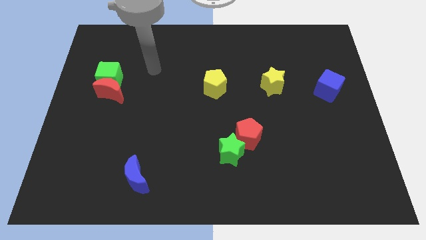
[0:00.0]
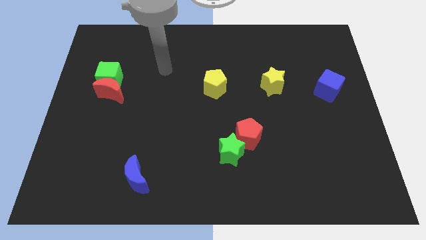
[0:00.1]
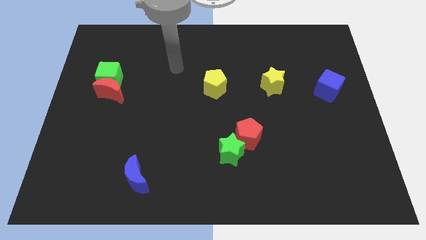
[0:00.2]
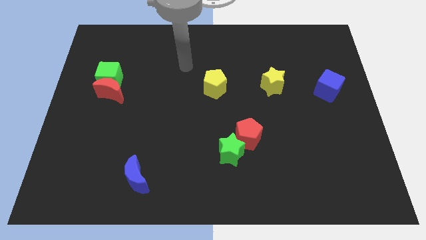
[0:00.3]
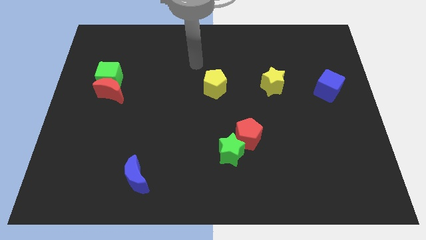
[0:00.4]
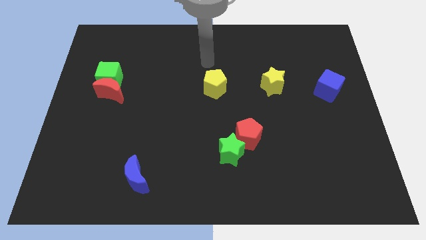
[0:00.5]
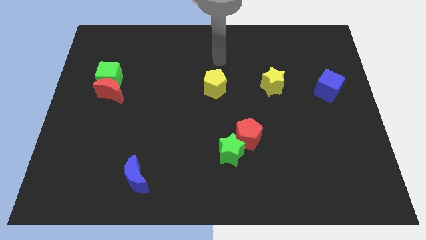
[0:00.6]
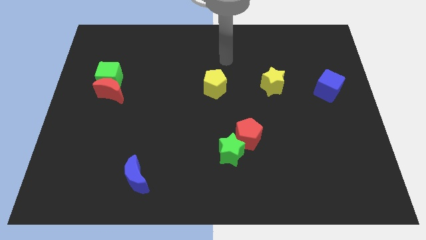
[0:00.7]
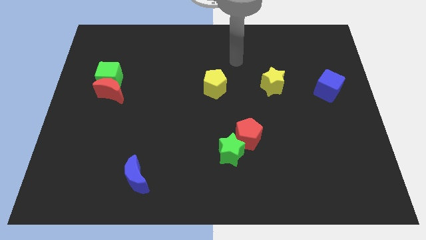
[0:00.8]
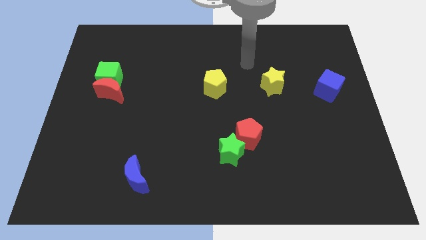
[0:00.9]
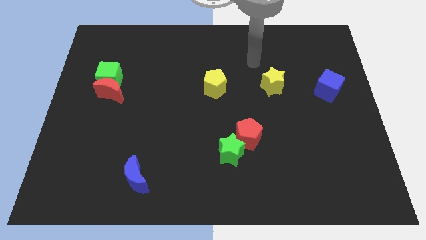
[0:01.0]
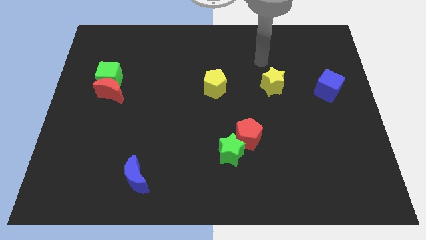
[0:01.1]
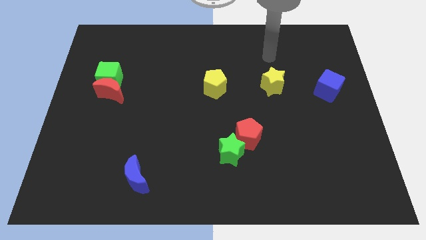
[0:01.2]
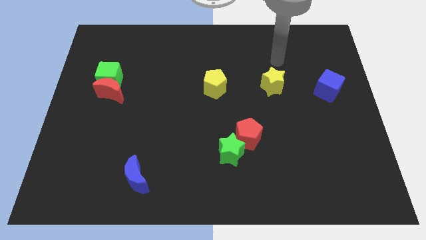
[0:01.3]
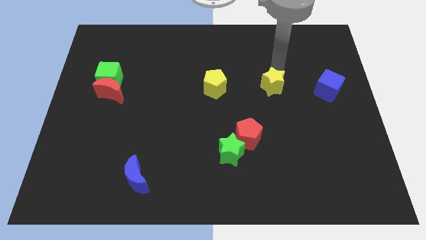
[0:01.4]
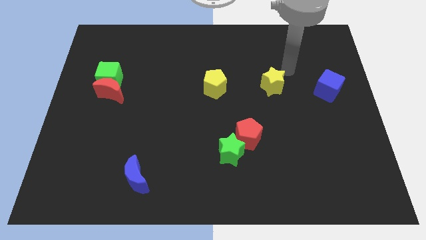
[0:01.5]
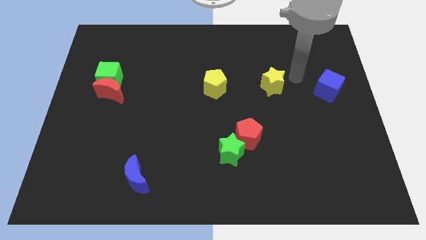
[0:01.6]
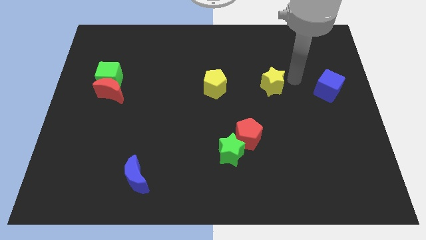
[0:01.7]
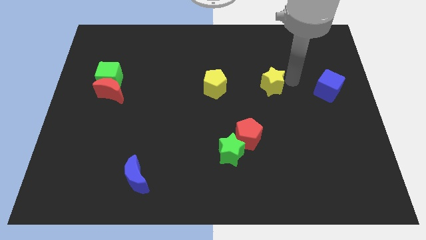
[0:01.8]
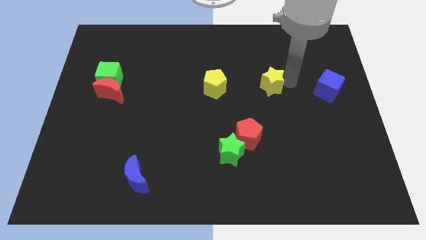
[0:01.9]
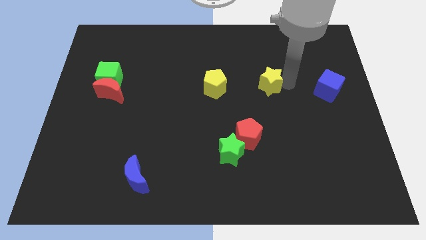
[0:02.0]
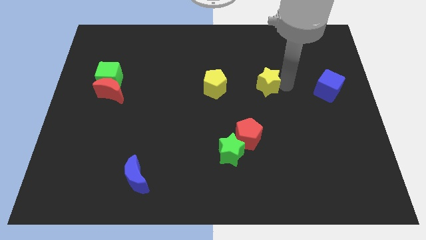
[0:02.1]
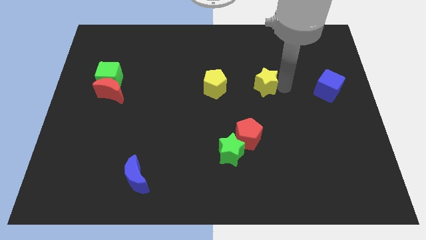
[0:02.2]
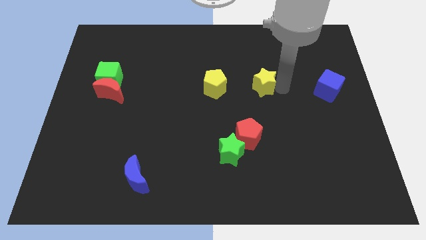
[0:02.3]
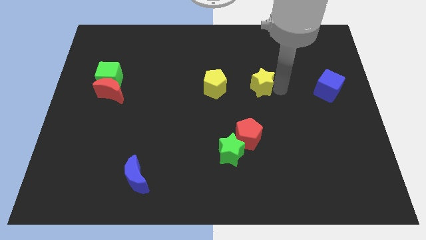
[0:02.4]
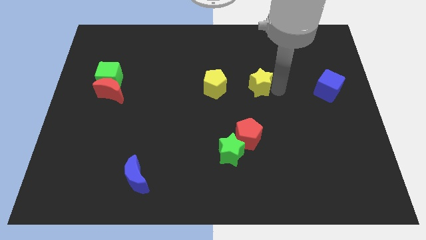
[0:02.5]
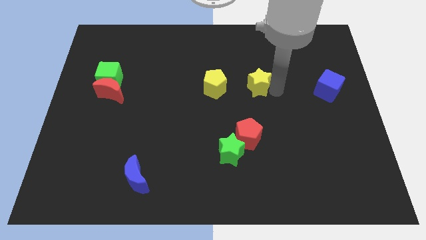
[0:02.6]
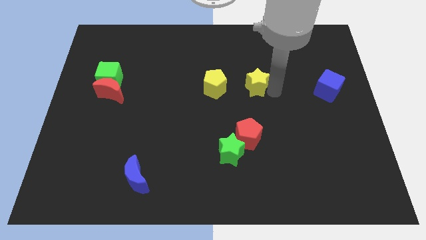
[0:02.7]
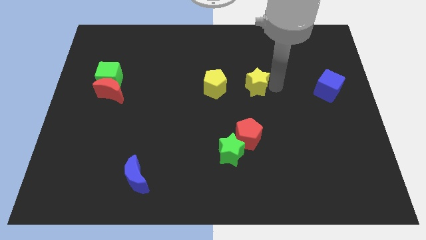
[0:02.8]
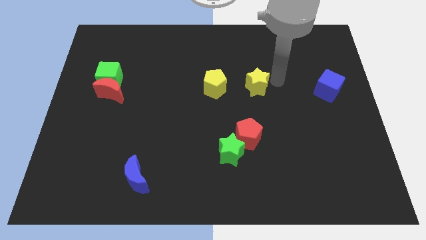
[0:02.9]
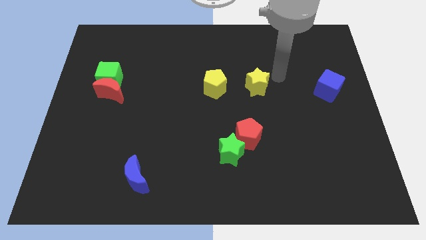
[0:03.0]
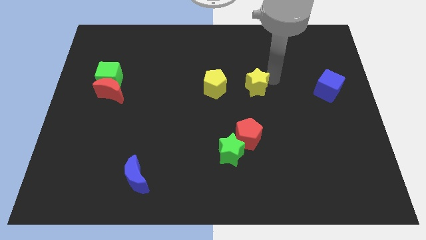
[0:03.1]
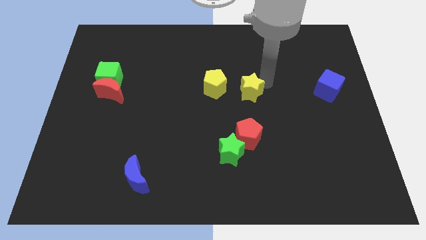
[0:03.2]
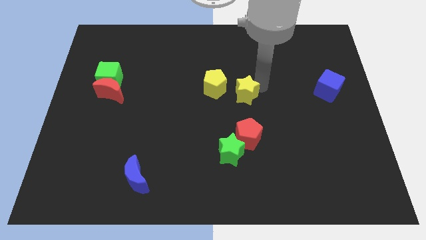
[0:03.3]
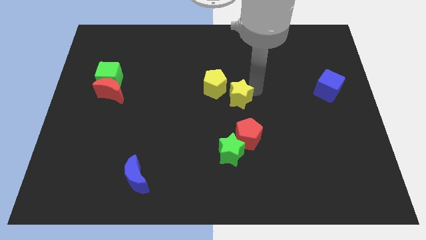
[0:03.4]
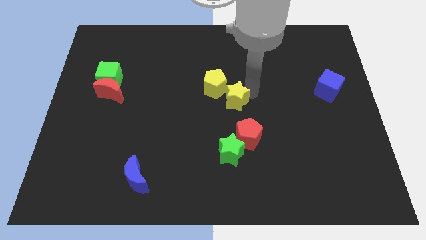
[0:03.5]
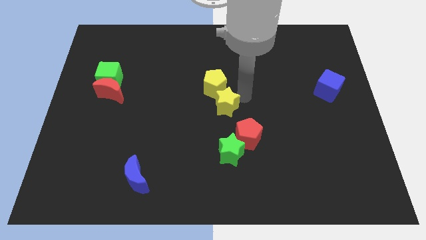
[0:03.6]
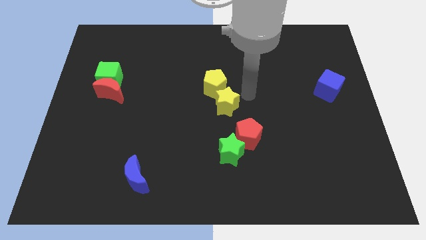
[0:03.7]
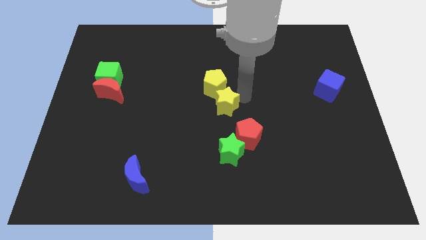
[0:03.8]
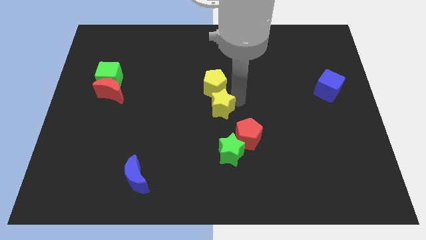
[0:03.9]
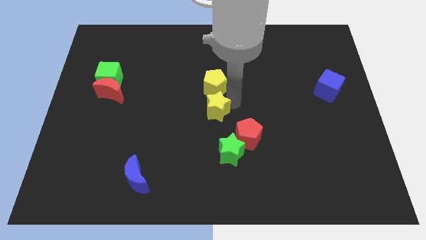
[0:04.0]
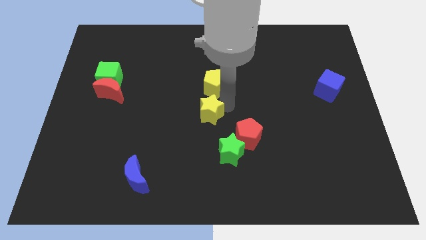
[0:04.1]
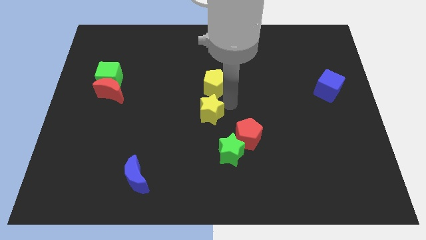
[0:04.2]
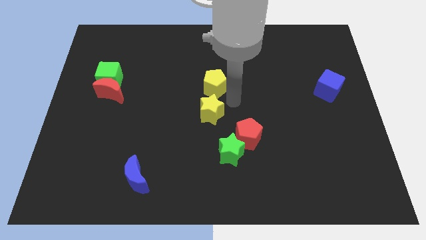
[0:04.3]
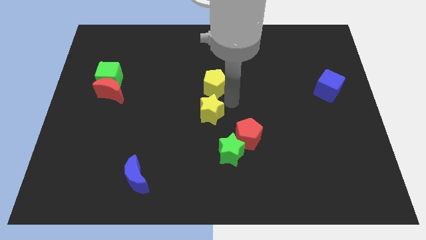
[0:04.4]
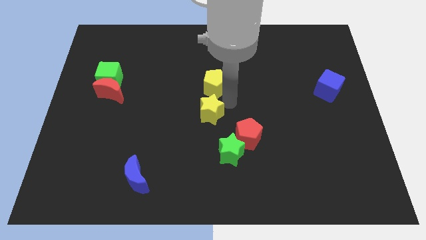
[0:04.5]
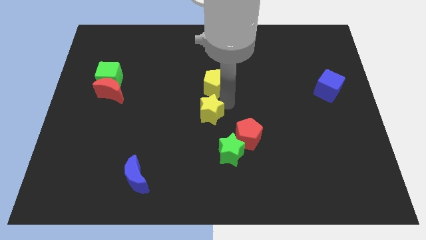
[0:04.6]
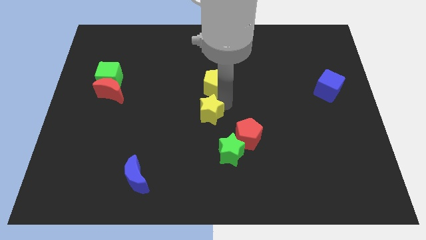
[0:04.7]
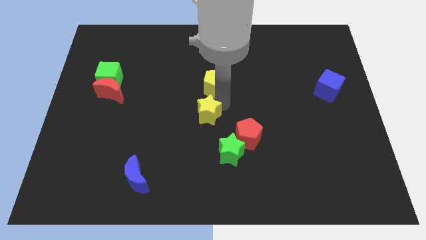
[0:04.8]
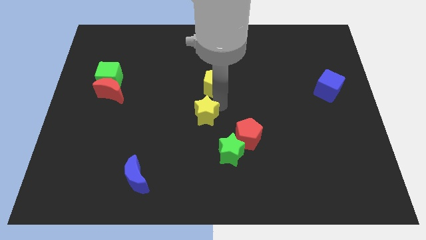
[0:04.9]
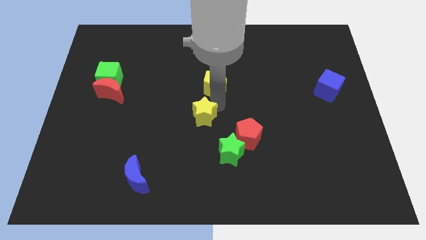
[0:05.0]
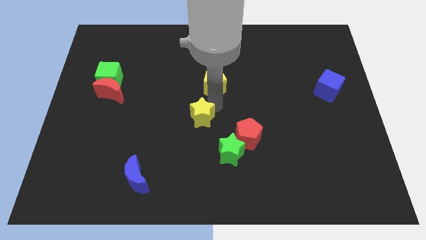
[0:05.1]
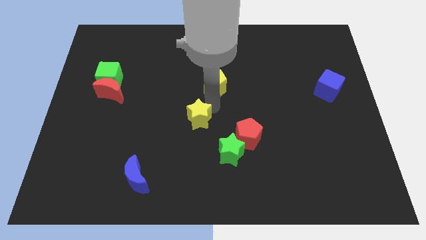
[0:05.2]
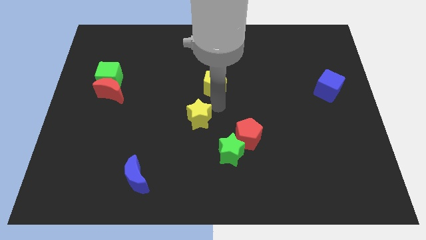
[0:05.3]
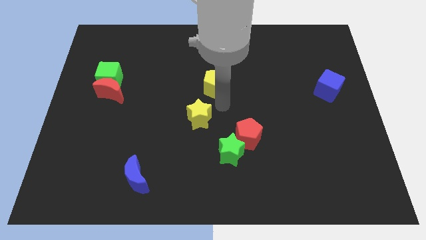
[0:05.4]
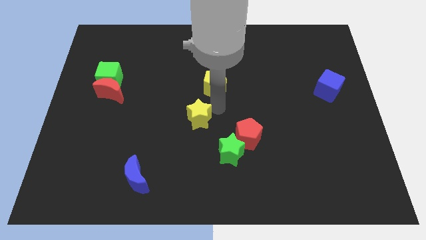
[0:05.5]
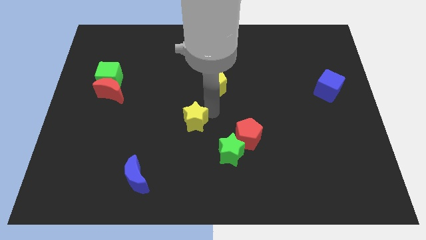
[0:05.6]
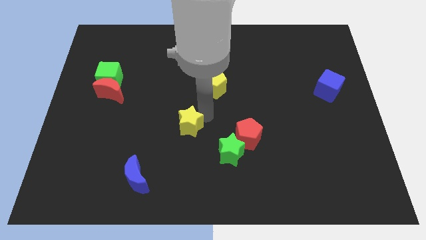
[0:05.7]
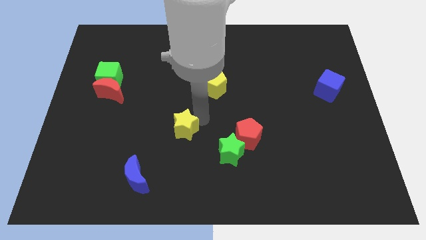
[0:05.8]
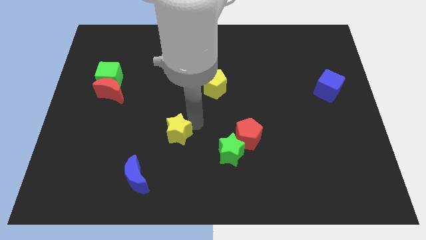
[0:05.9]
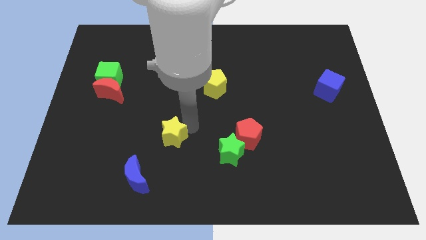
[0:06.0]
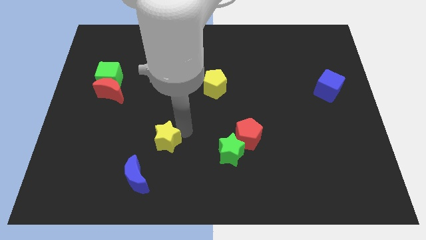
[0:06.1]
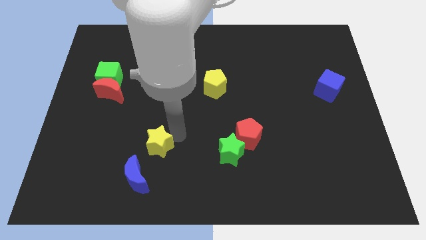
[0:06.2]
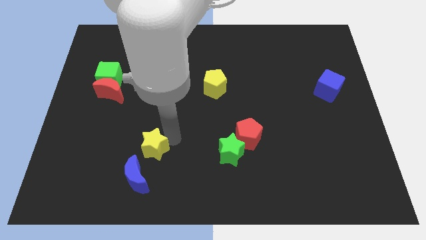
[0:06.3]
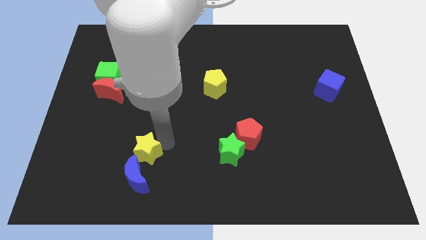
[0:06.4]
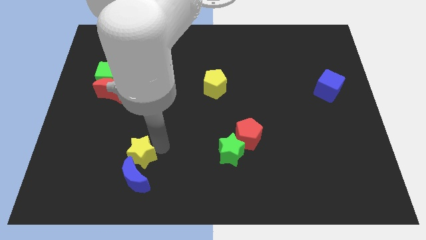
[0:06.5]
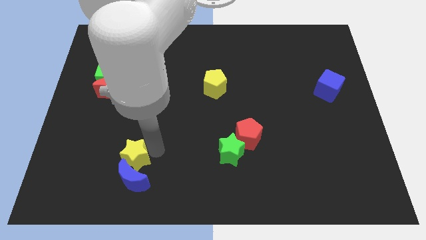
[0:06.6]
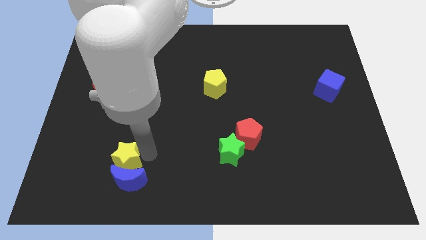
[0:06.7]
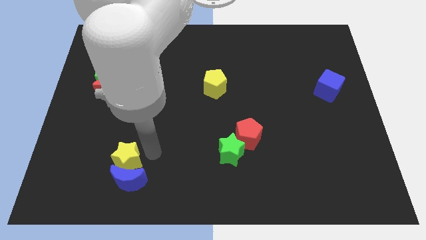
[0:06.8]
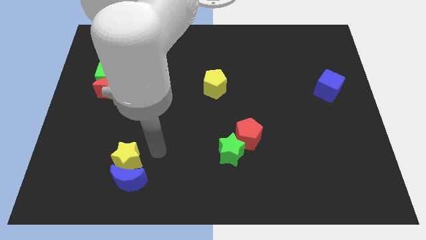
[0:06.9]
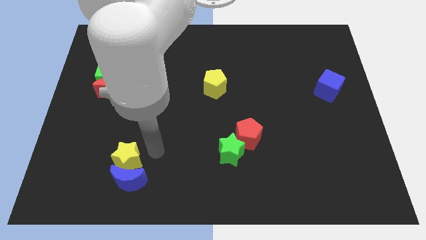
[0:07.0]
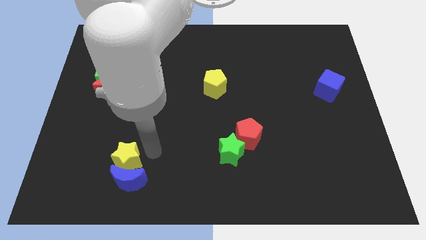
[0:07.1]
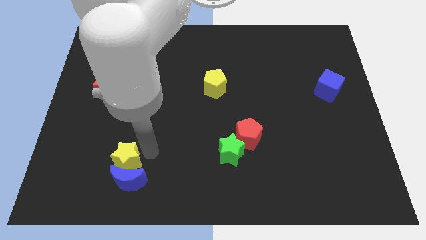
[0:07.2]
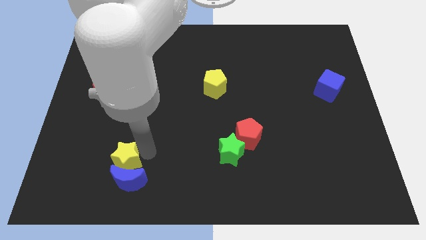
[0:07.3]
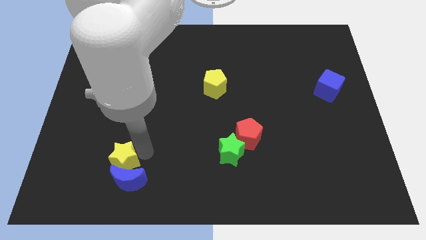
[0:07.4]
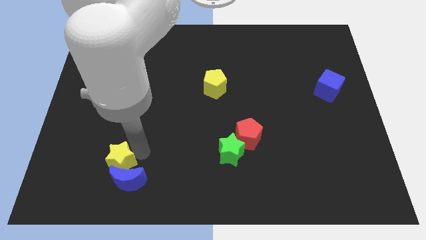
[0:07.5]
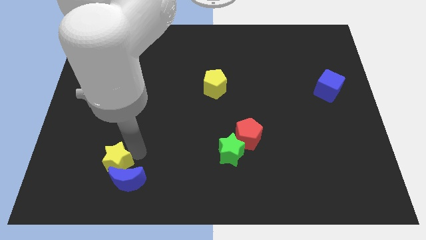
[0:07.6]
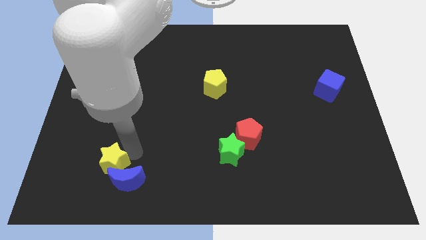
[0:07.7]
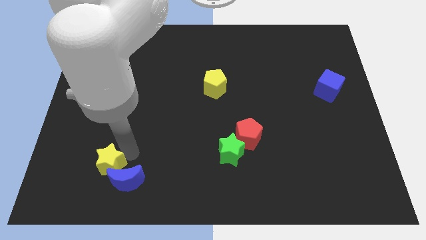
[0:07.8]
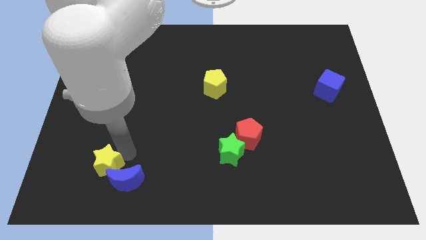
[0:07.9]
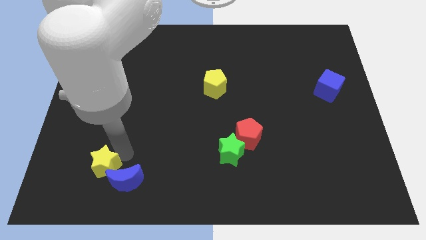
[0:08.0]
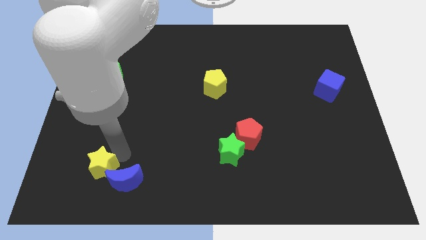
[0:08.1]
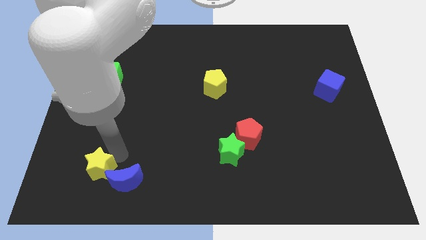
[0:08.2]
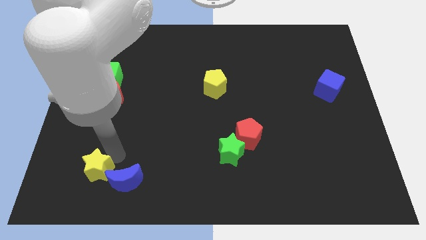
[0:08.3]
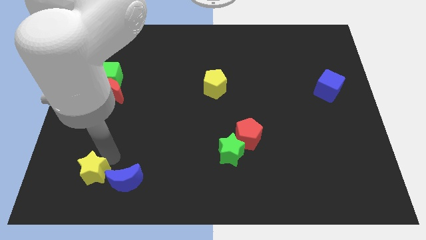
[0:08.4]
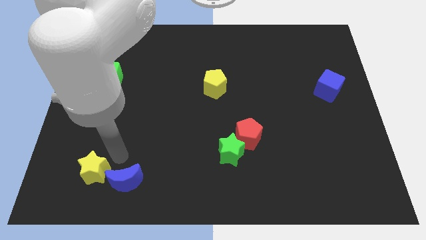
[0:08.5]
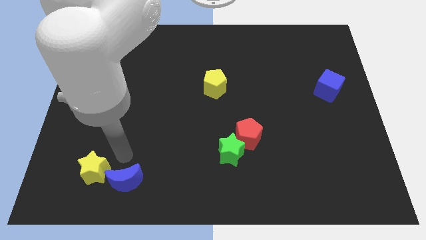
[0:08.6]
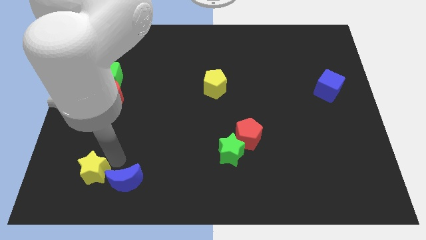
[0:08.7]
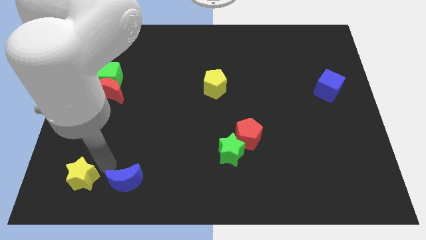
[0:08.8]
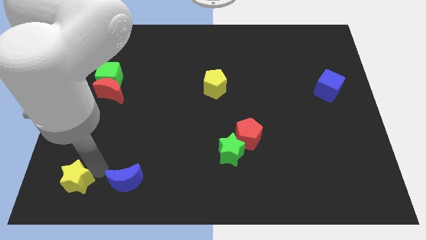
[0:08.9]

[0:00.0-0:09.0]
move the yellow star to the lower left corner
